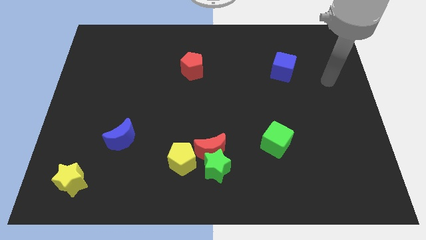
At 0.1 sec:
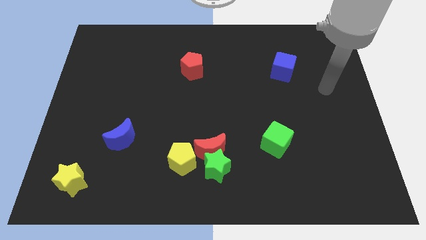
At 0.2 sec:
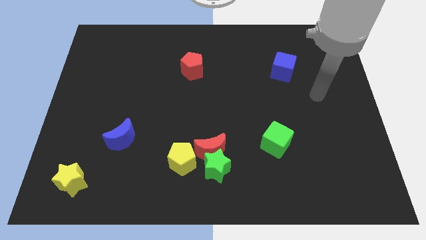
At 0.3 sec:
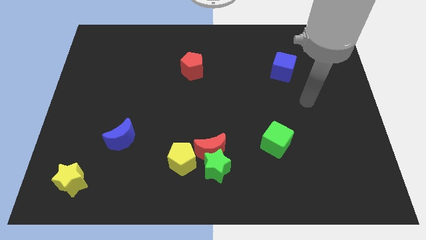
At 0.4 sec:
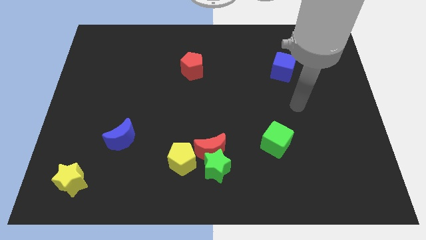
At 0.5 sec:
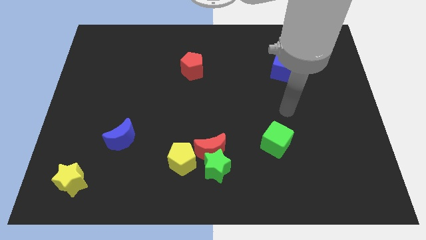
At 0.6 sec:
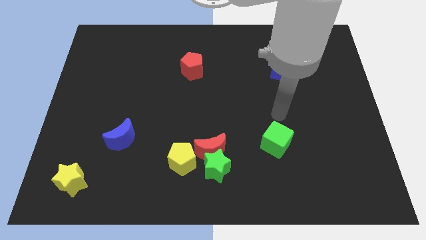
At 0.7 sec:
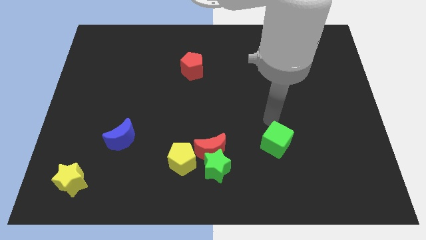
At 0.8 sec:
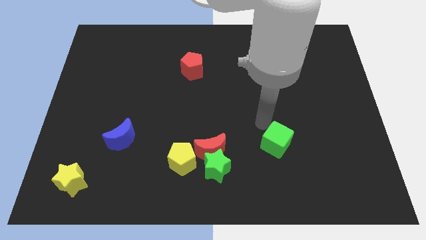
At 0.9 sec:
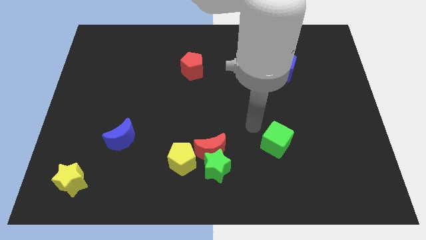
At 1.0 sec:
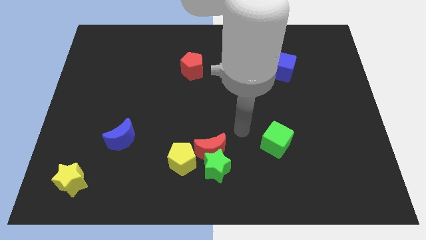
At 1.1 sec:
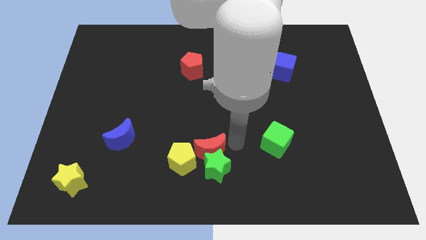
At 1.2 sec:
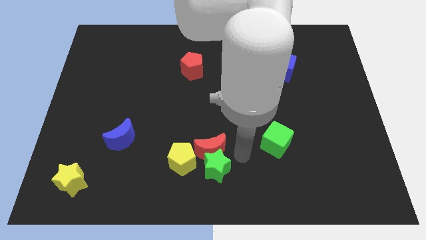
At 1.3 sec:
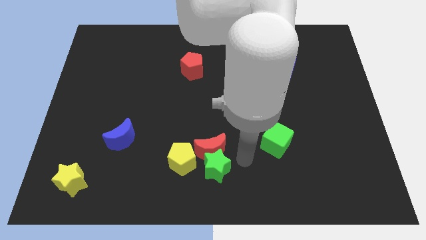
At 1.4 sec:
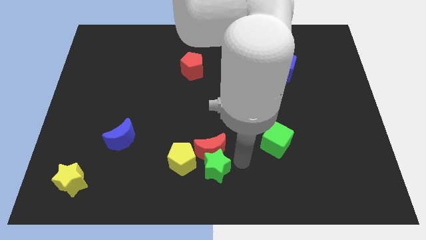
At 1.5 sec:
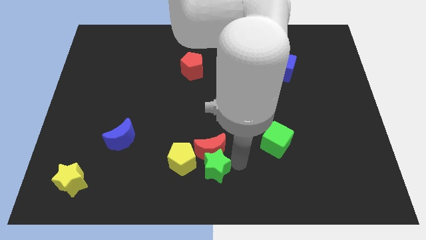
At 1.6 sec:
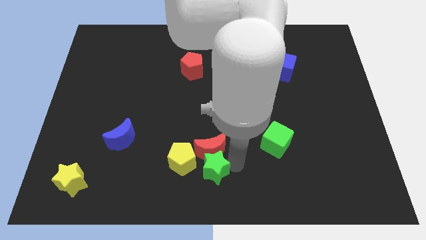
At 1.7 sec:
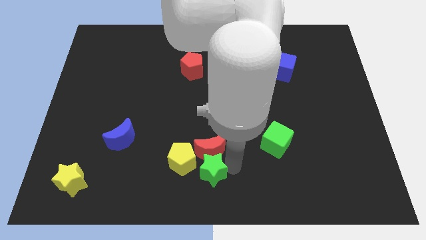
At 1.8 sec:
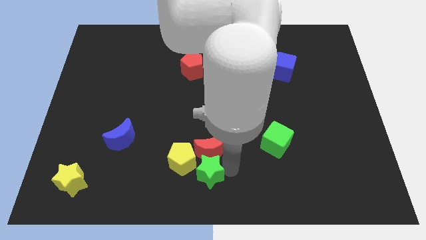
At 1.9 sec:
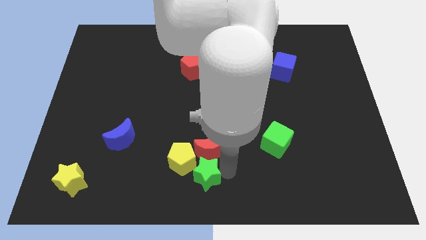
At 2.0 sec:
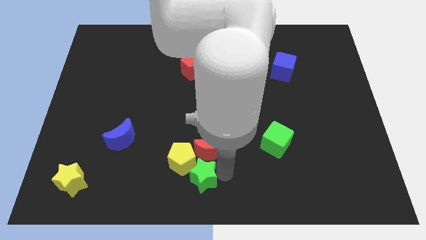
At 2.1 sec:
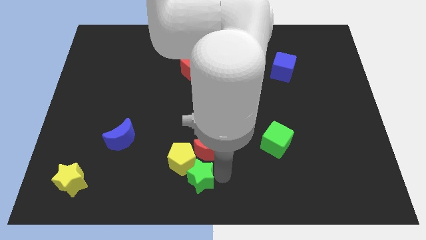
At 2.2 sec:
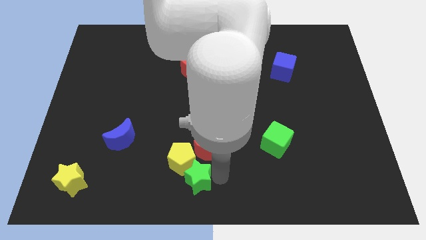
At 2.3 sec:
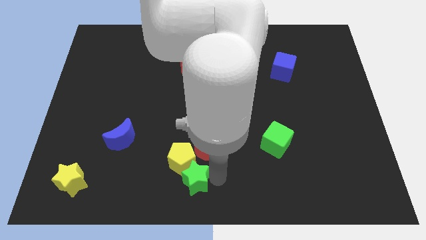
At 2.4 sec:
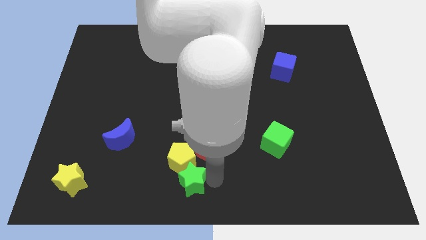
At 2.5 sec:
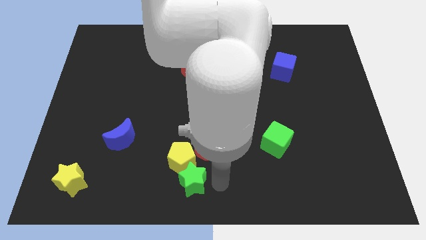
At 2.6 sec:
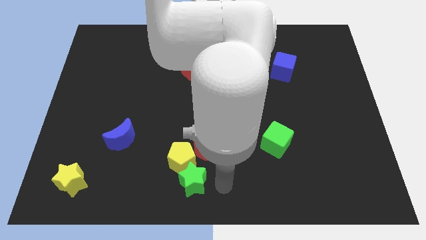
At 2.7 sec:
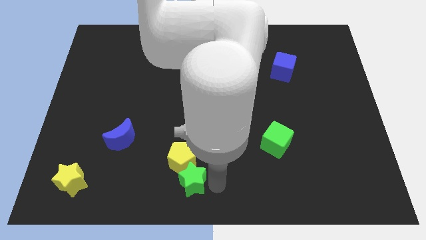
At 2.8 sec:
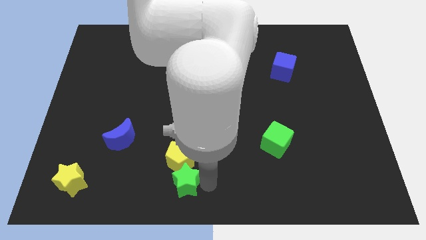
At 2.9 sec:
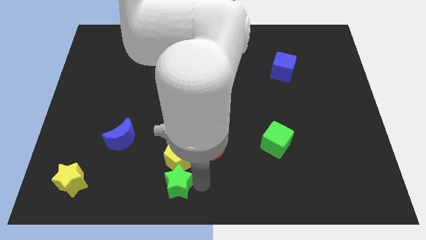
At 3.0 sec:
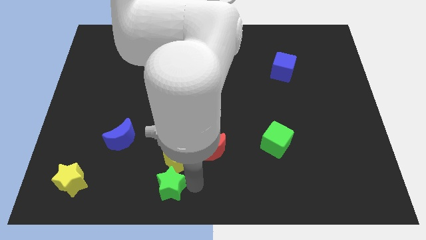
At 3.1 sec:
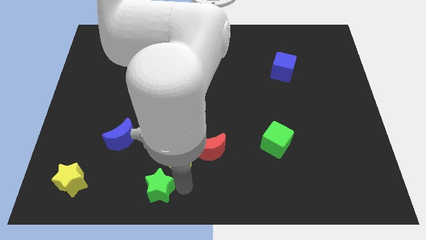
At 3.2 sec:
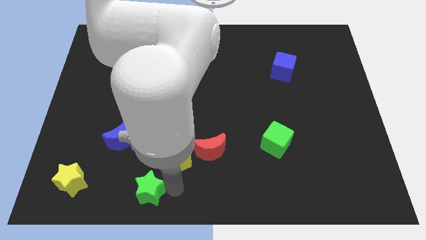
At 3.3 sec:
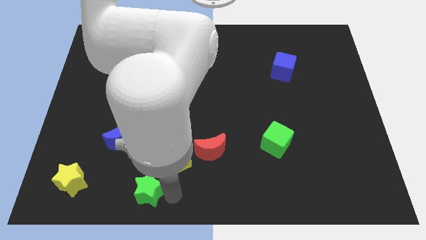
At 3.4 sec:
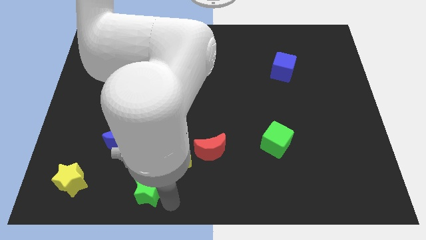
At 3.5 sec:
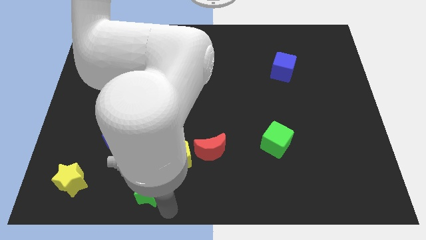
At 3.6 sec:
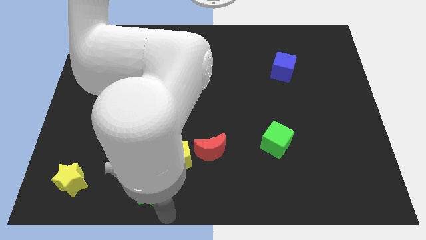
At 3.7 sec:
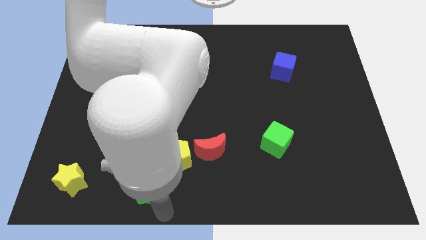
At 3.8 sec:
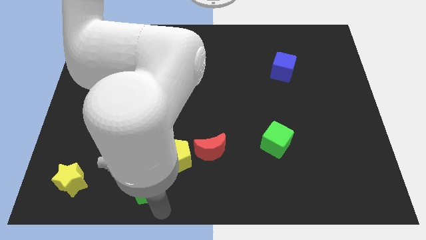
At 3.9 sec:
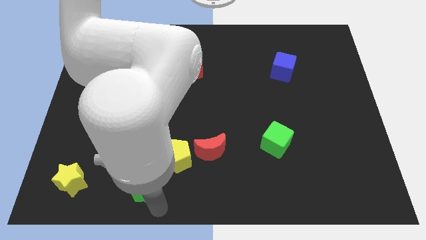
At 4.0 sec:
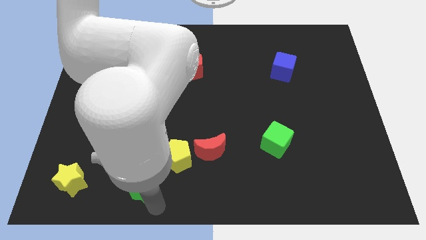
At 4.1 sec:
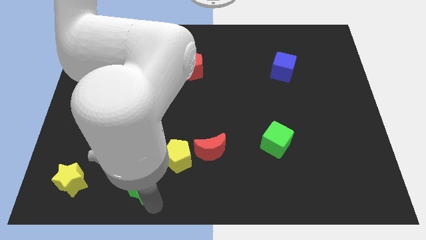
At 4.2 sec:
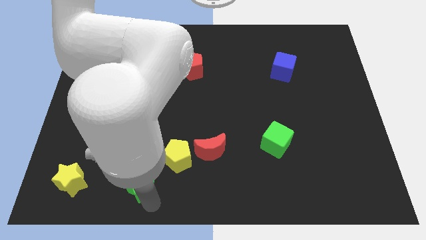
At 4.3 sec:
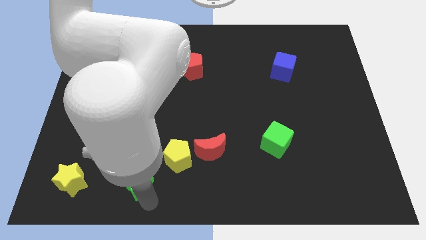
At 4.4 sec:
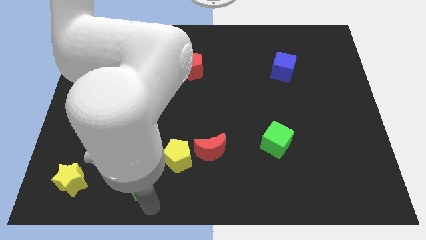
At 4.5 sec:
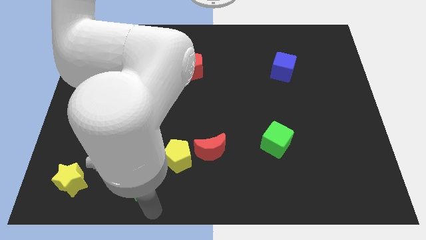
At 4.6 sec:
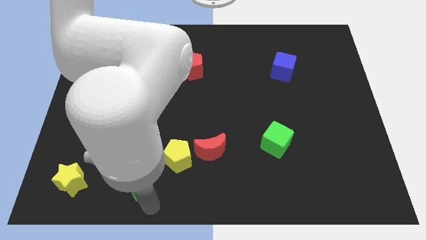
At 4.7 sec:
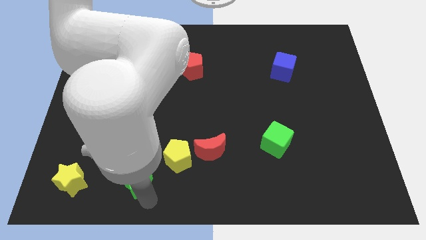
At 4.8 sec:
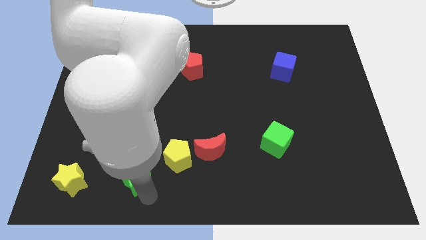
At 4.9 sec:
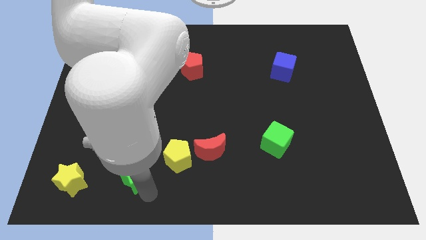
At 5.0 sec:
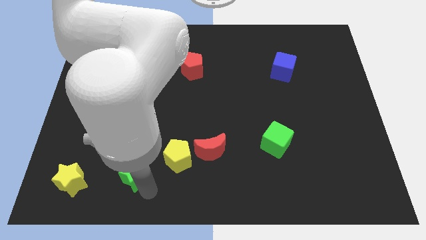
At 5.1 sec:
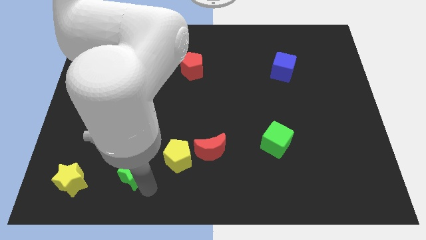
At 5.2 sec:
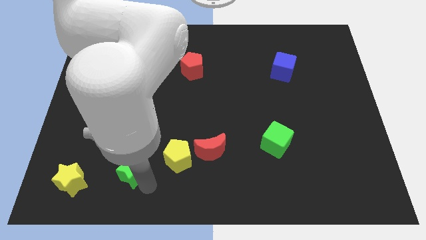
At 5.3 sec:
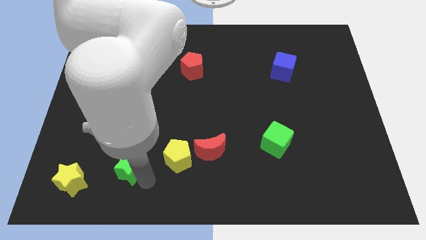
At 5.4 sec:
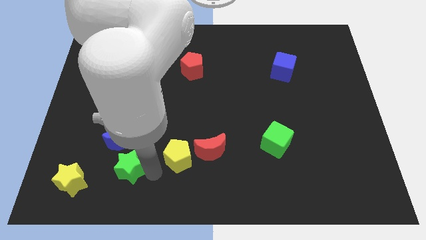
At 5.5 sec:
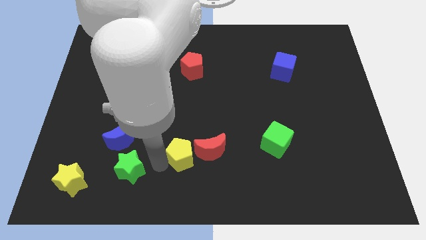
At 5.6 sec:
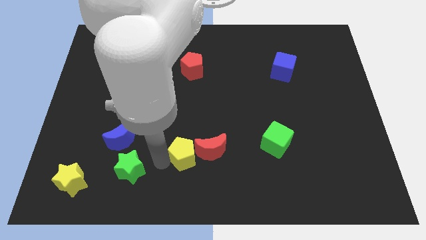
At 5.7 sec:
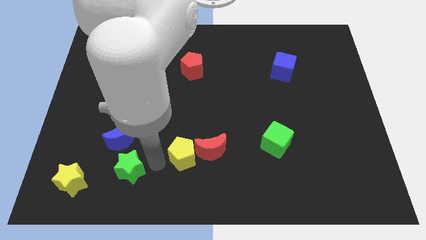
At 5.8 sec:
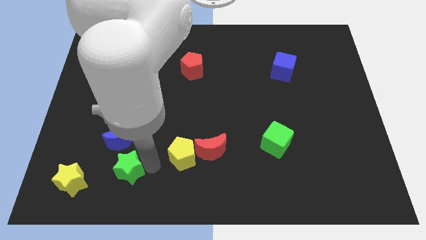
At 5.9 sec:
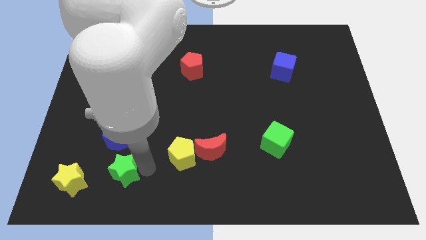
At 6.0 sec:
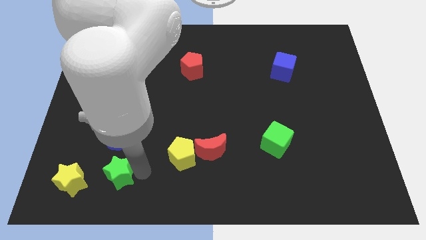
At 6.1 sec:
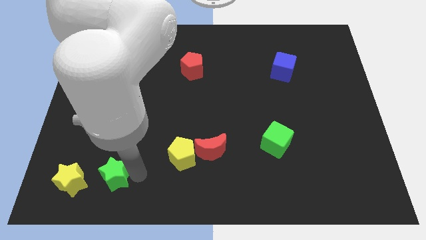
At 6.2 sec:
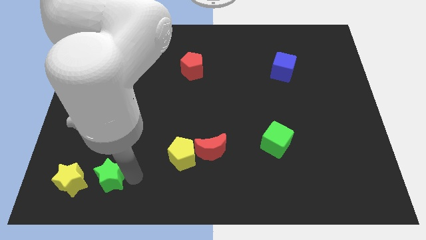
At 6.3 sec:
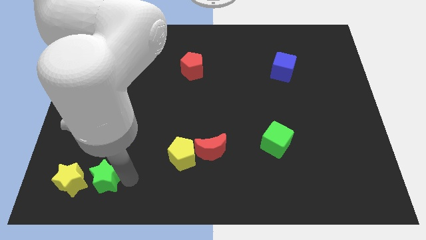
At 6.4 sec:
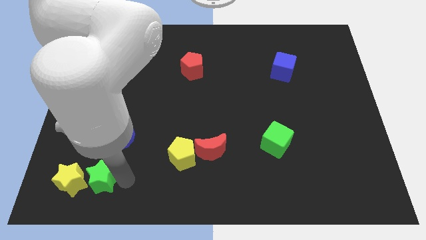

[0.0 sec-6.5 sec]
push the green star towards the yellow star

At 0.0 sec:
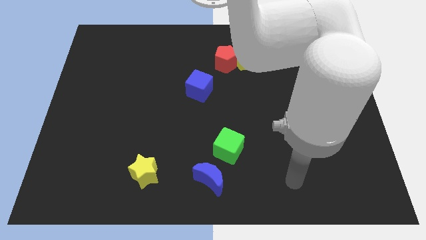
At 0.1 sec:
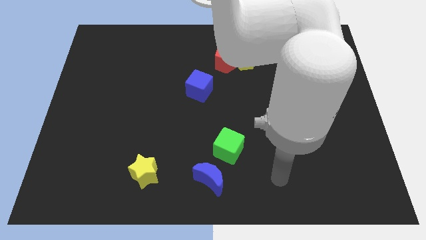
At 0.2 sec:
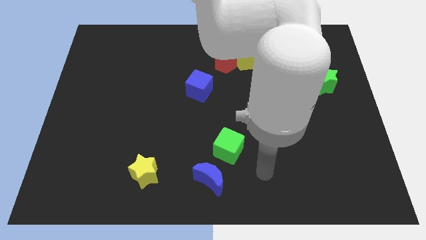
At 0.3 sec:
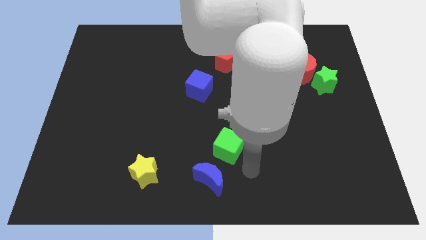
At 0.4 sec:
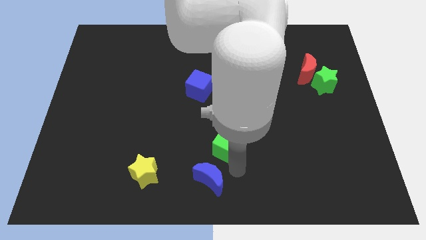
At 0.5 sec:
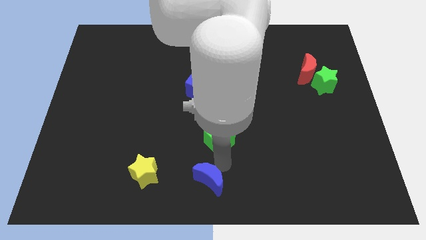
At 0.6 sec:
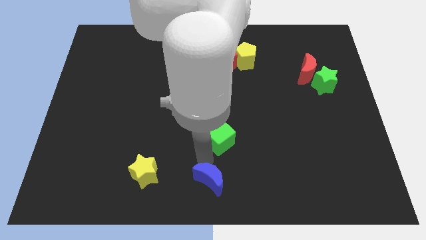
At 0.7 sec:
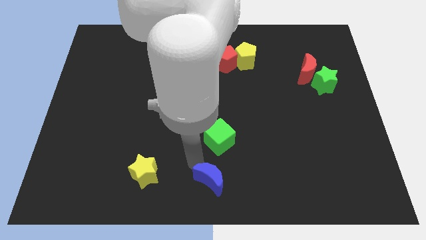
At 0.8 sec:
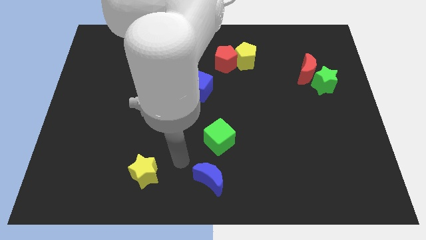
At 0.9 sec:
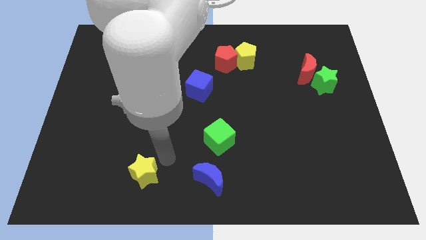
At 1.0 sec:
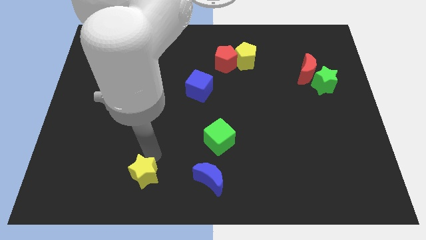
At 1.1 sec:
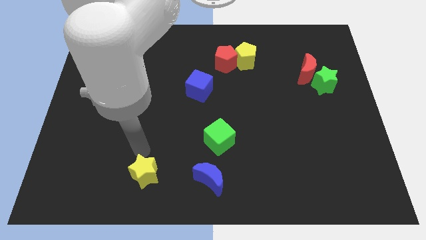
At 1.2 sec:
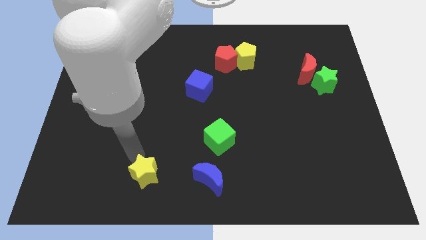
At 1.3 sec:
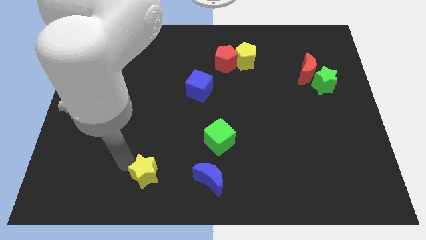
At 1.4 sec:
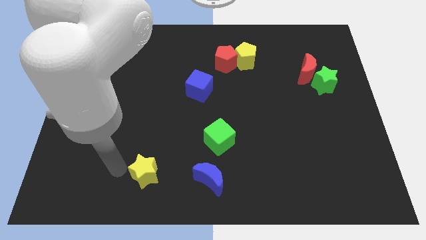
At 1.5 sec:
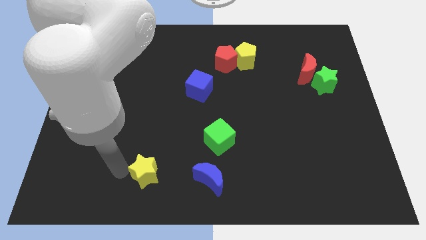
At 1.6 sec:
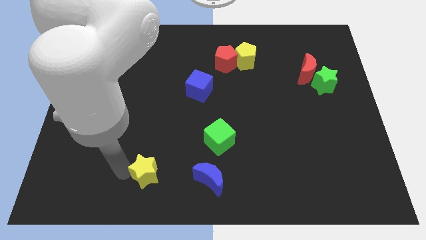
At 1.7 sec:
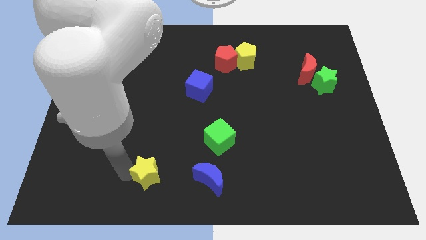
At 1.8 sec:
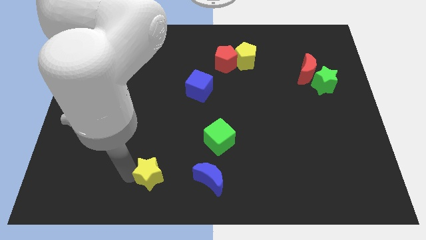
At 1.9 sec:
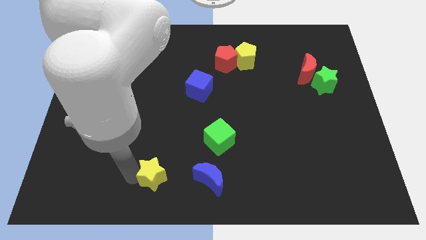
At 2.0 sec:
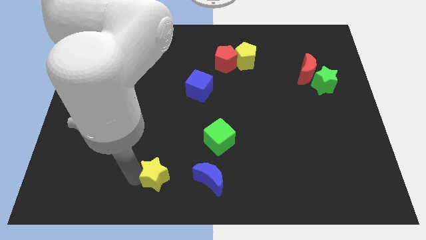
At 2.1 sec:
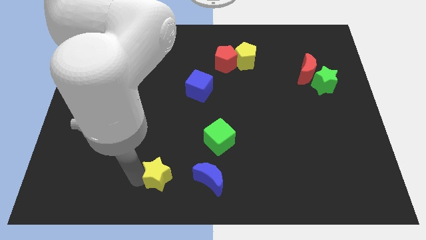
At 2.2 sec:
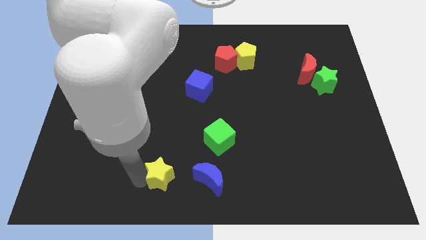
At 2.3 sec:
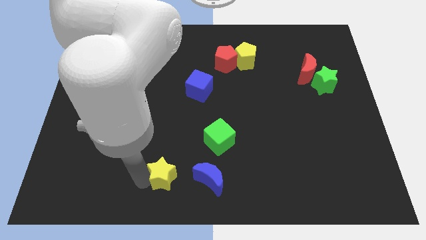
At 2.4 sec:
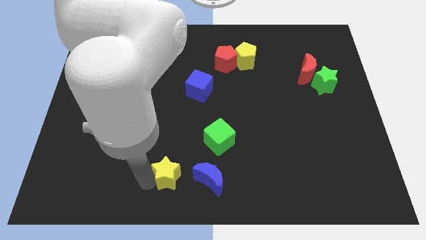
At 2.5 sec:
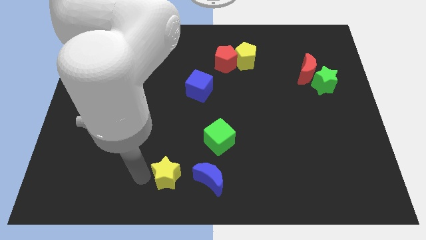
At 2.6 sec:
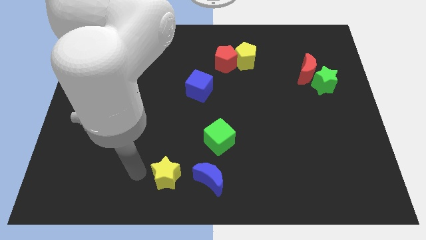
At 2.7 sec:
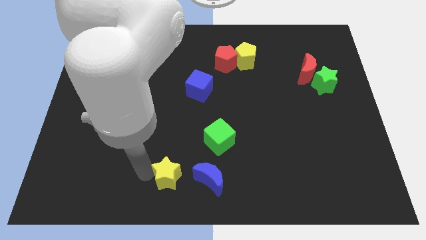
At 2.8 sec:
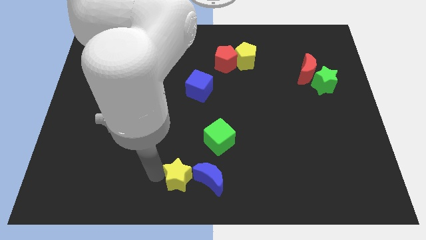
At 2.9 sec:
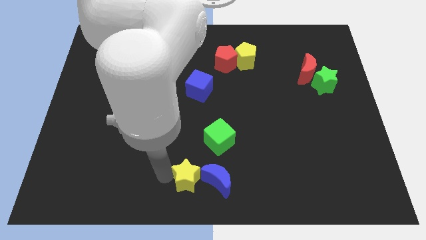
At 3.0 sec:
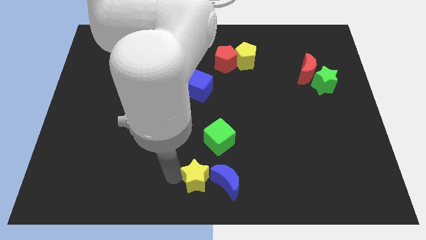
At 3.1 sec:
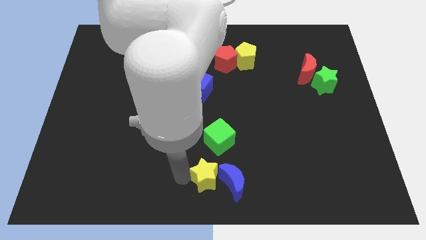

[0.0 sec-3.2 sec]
move the yellow star to the blue moon
